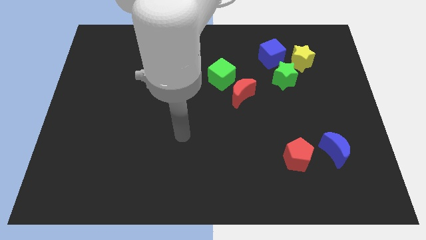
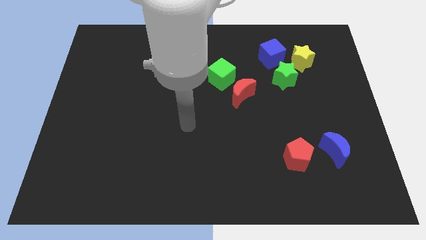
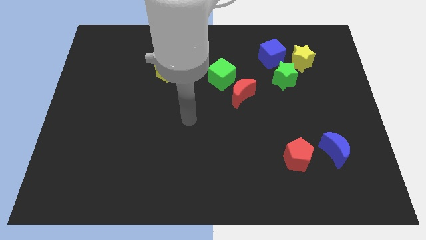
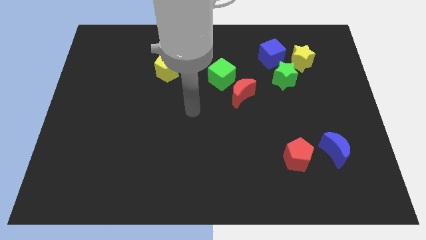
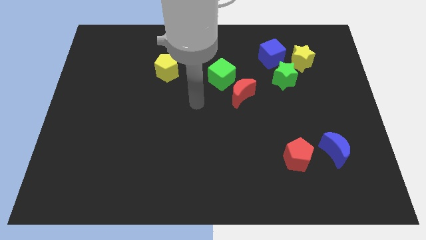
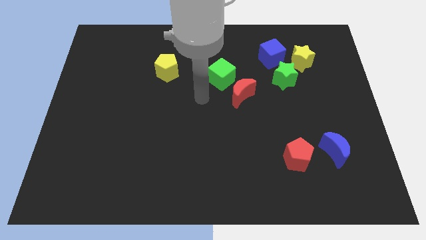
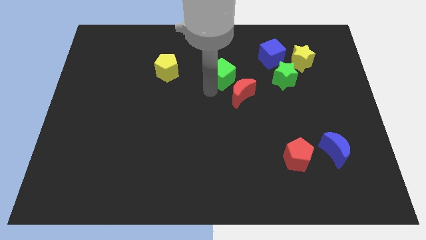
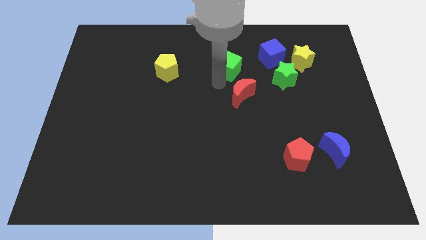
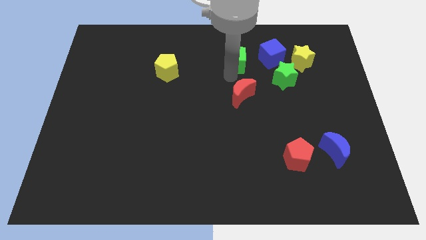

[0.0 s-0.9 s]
separate the red moon from the green cube

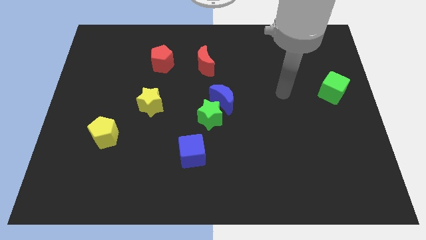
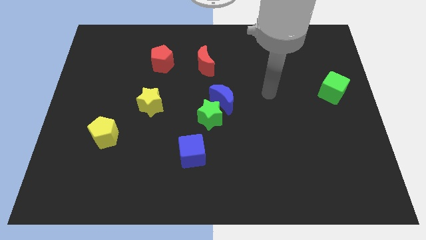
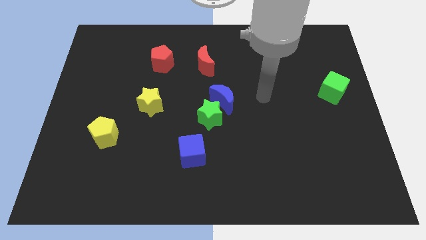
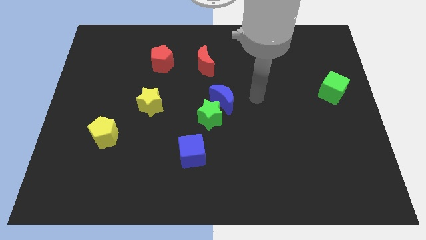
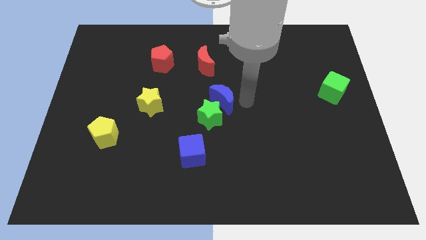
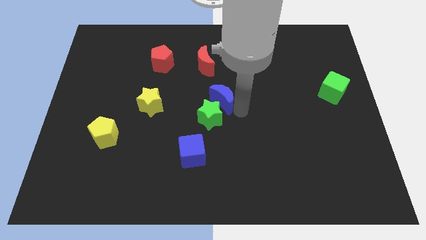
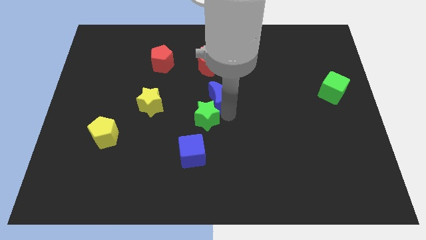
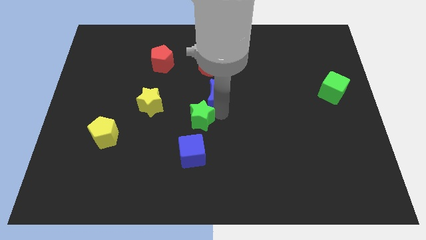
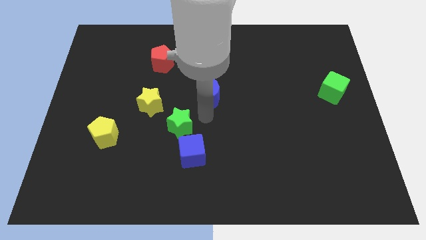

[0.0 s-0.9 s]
separate the blue moon from the green star

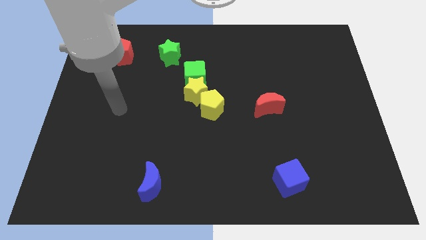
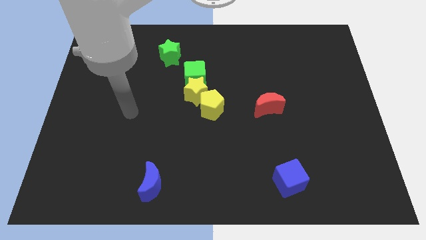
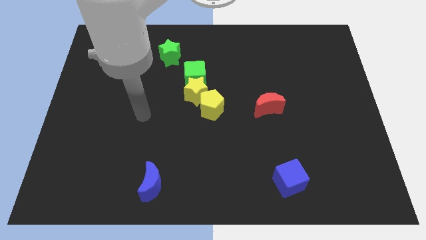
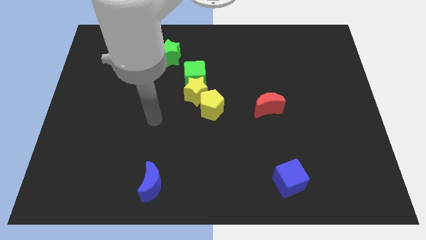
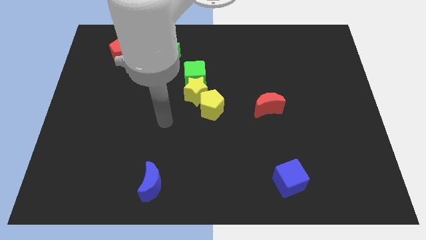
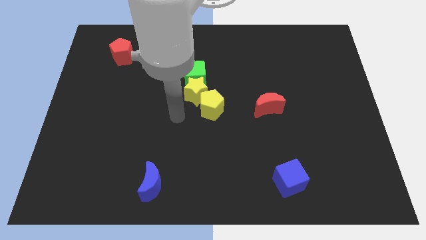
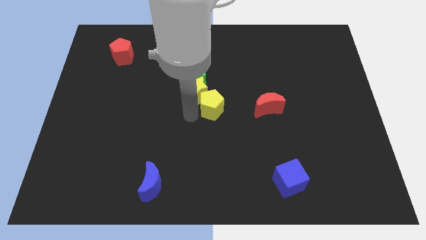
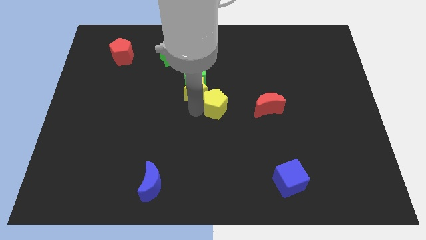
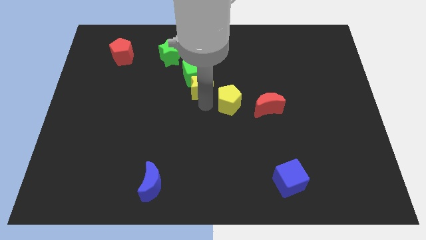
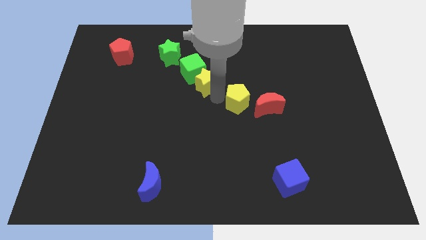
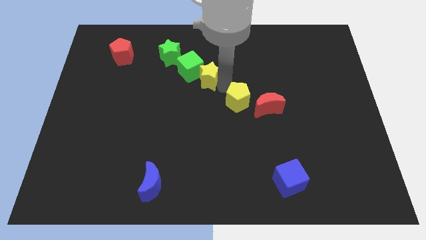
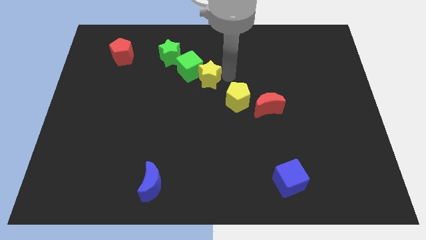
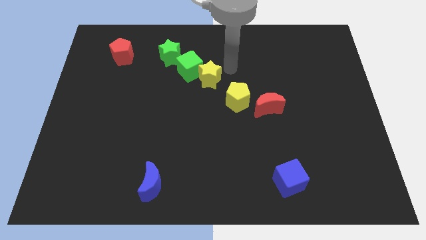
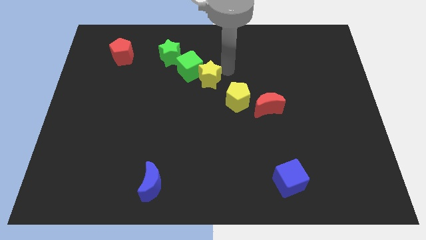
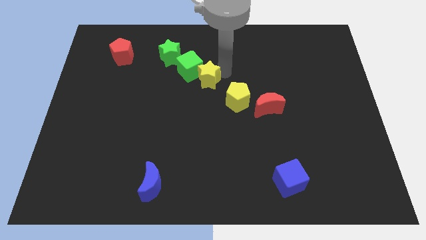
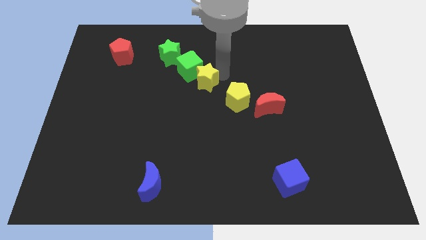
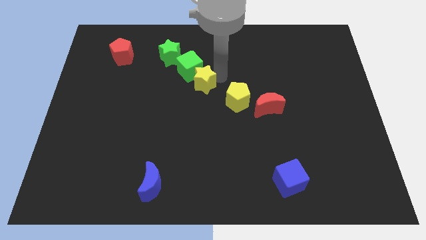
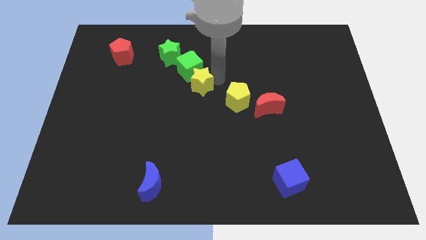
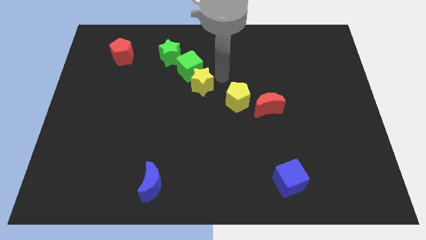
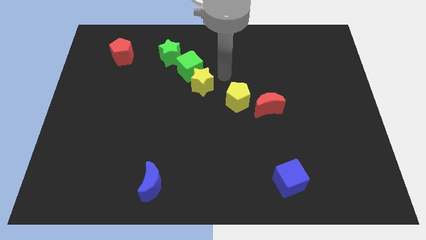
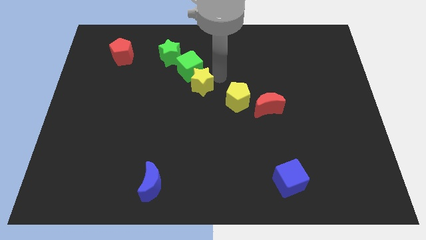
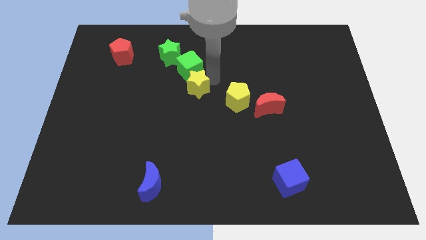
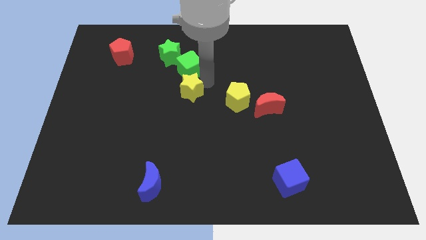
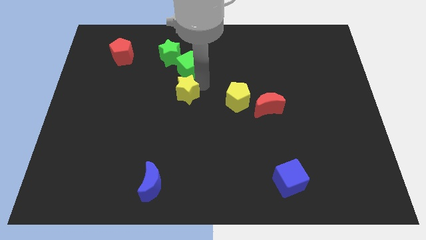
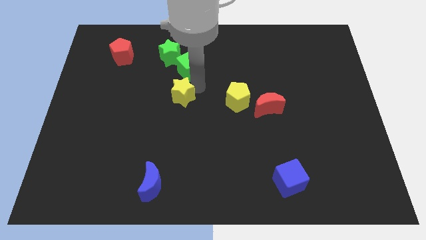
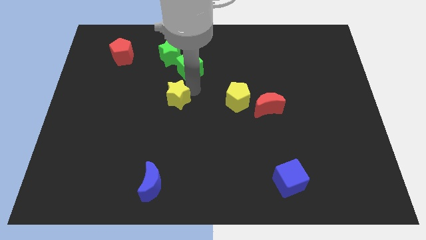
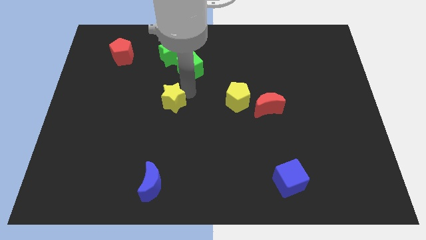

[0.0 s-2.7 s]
separate the yellow star from the green cube and yellow pentagon

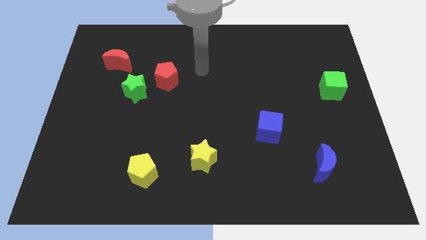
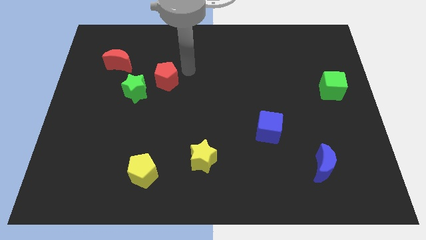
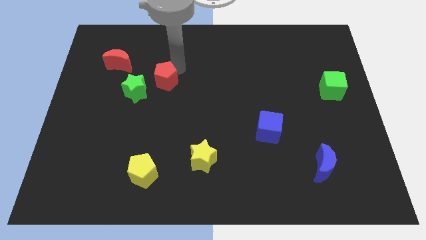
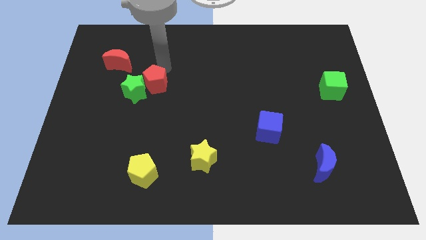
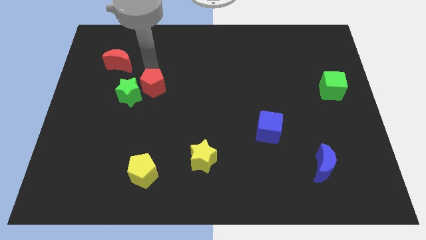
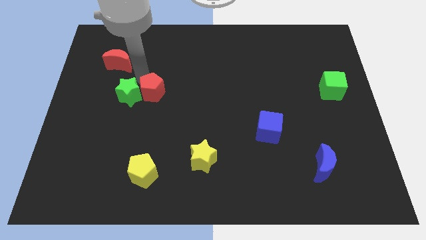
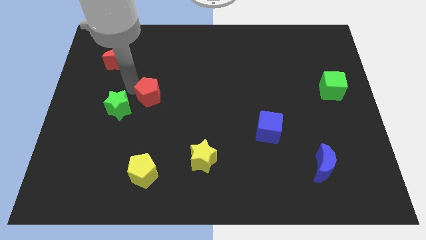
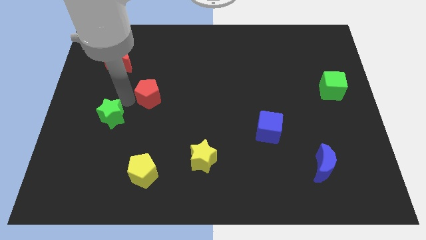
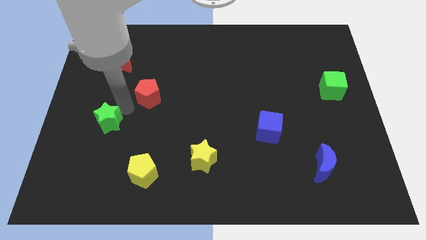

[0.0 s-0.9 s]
pull the red pentagon apart from the green star

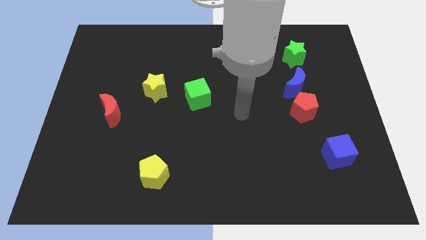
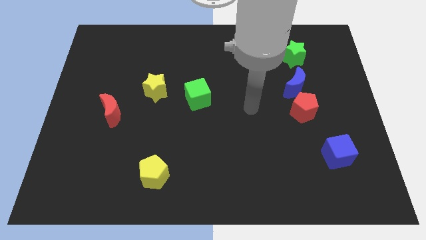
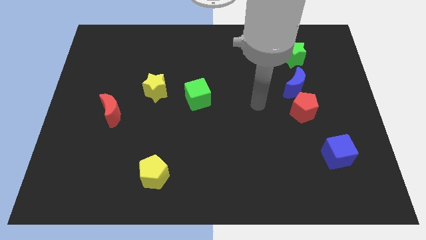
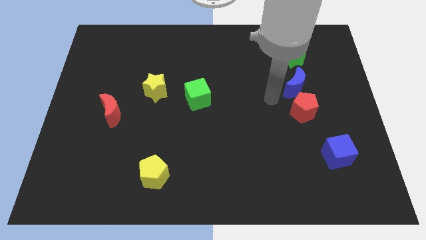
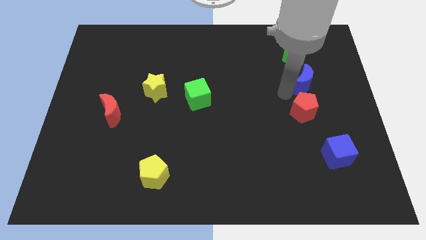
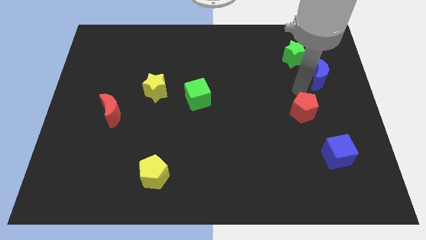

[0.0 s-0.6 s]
move the red pentagon away from the blue moon

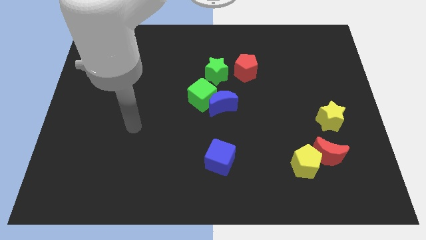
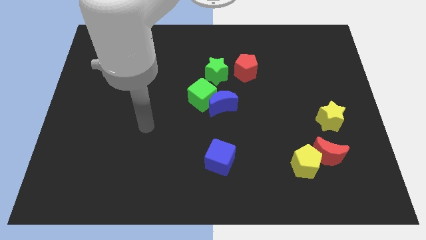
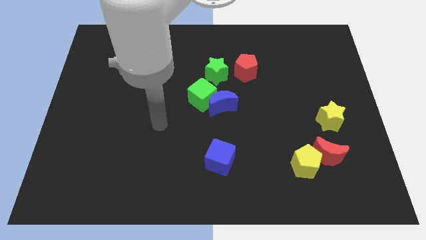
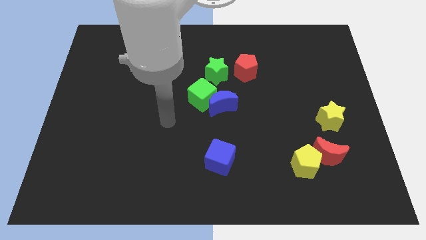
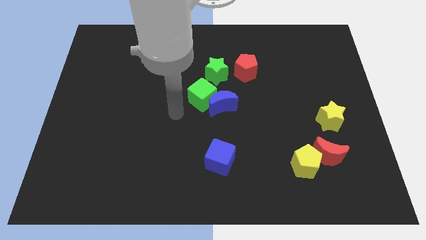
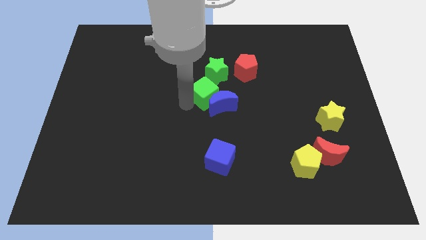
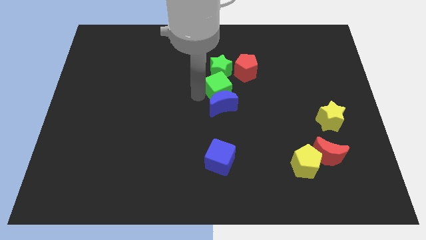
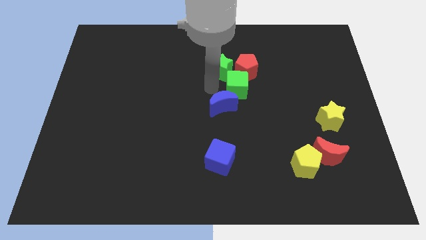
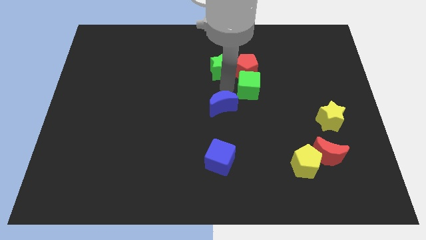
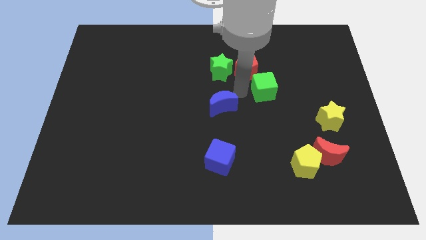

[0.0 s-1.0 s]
separate the blue moon from the green cube

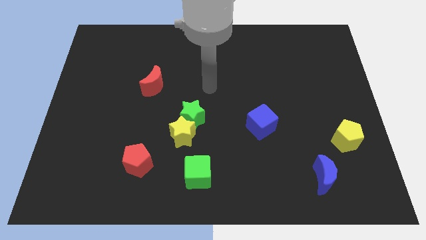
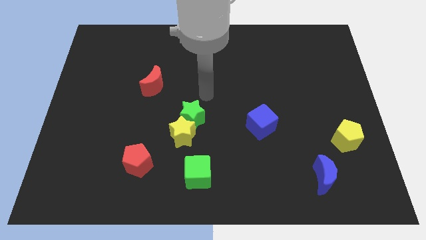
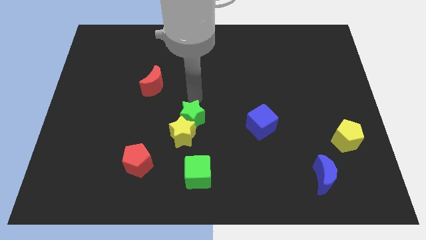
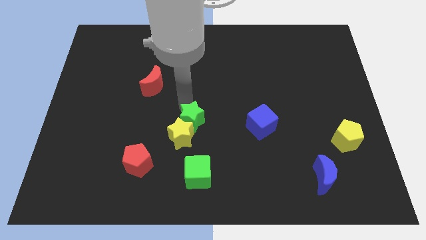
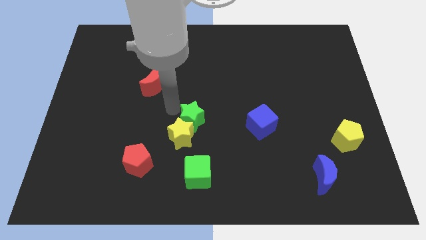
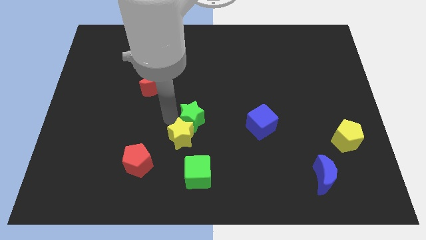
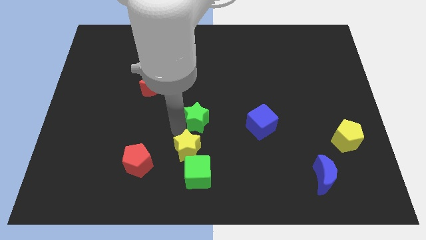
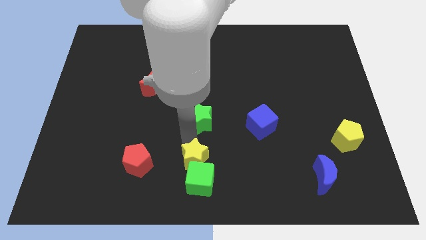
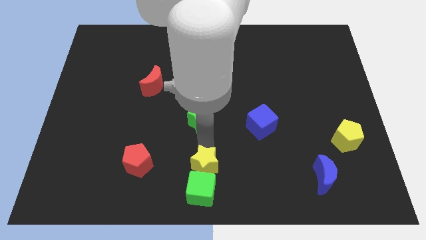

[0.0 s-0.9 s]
pull the green star apart from the yellow star

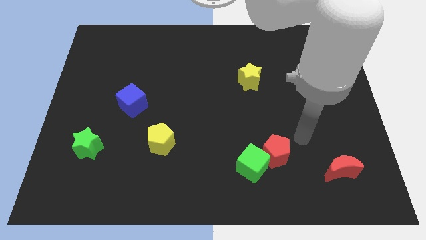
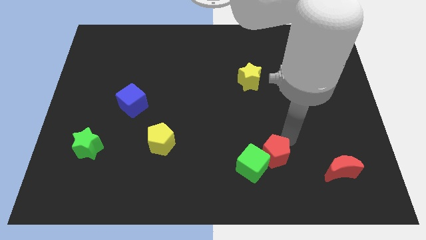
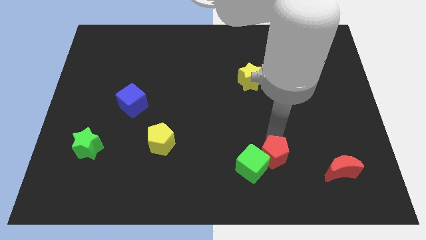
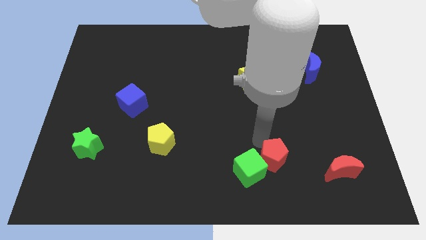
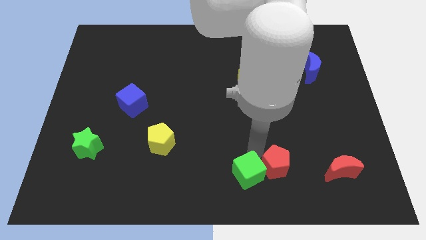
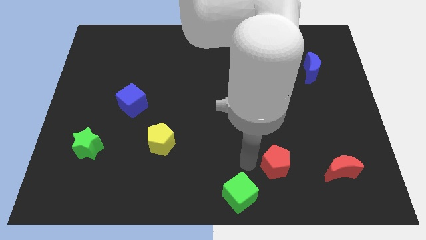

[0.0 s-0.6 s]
pull the red pentagon apart from the green cube

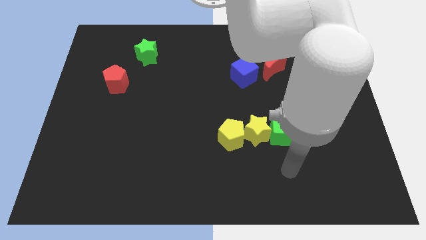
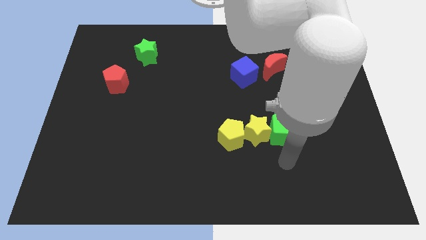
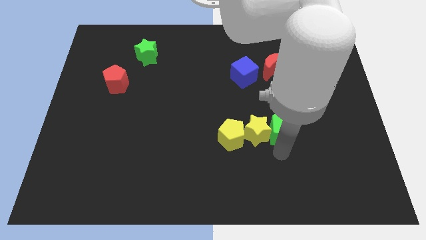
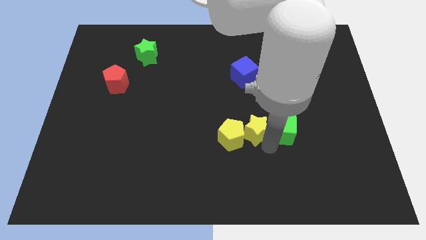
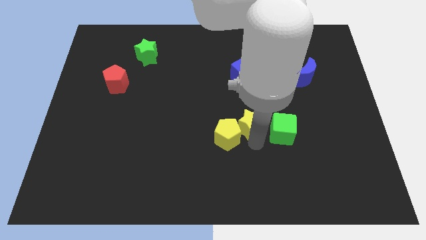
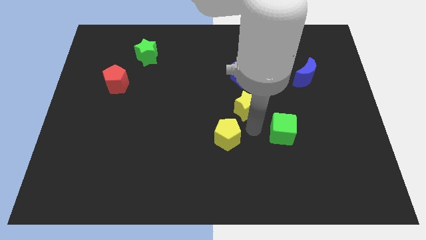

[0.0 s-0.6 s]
separate the green cube from the yellow star

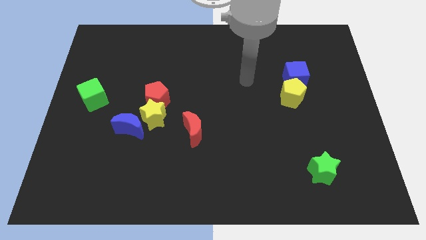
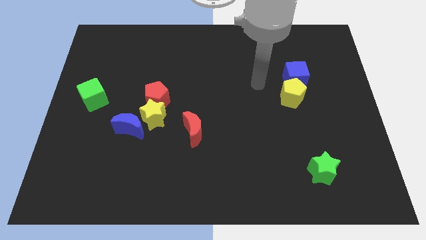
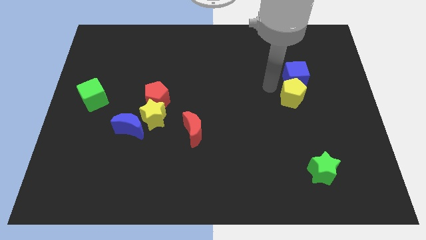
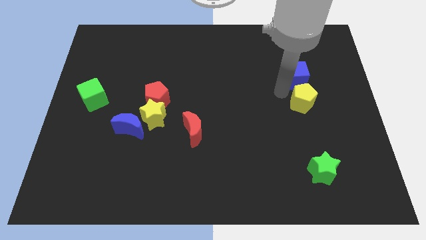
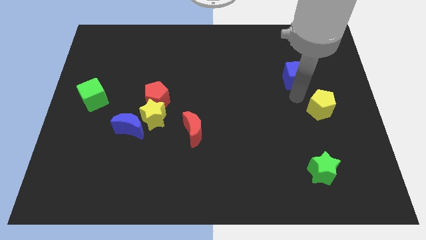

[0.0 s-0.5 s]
separate the blue cube from the yellow pentagon
